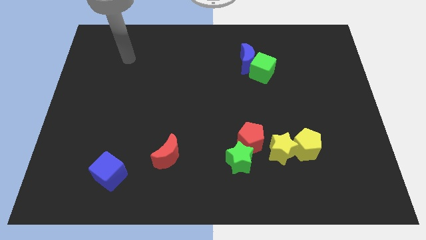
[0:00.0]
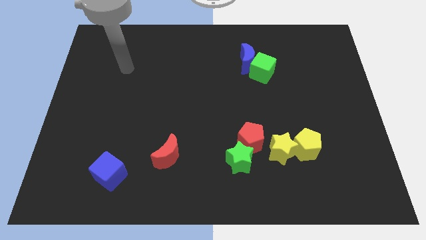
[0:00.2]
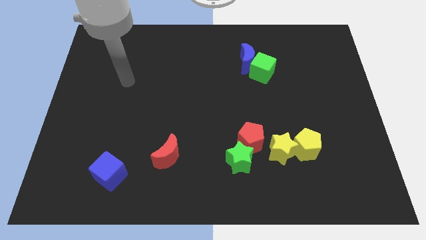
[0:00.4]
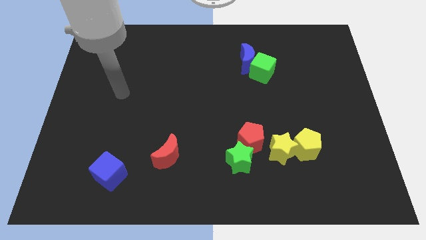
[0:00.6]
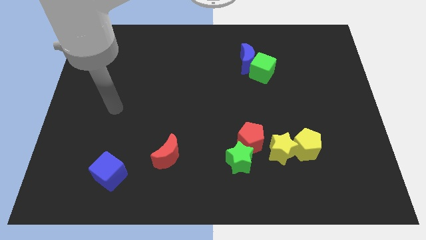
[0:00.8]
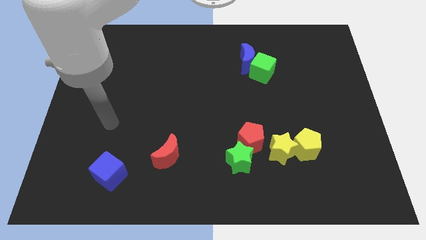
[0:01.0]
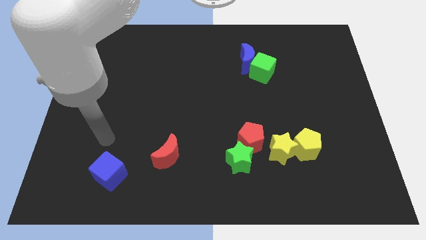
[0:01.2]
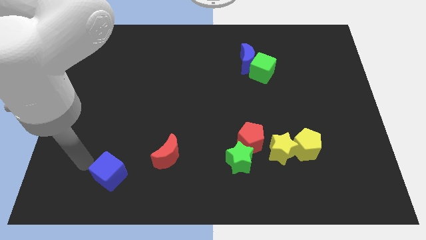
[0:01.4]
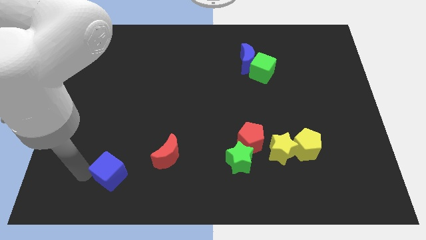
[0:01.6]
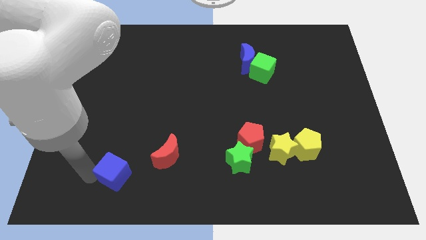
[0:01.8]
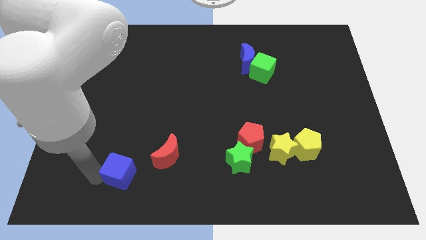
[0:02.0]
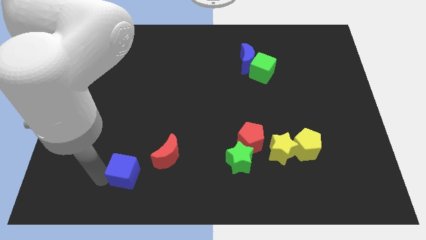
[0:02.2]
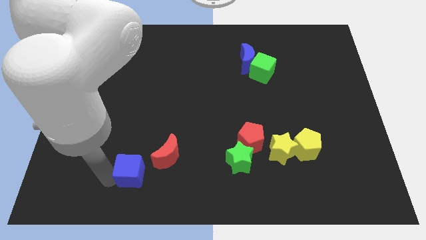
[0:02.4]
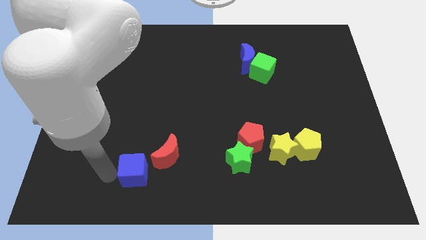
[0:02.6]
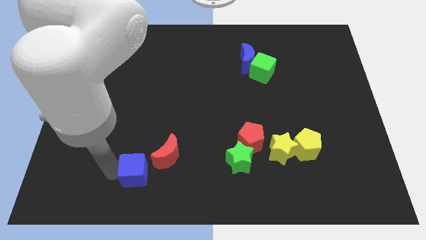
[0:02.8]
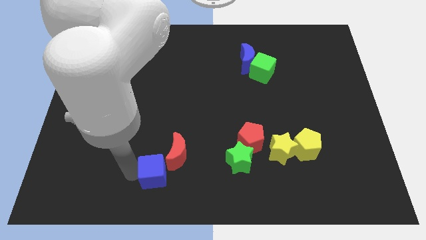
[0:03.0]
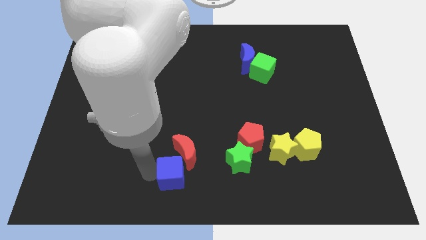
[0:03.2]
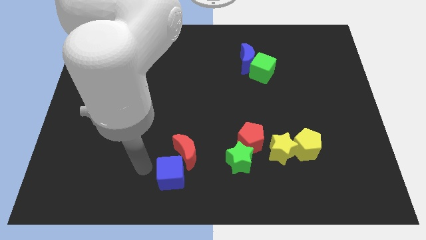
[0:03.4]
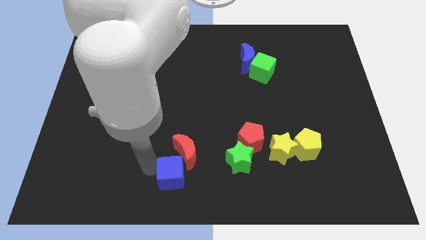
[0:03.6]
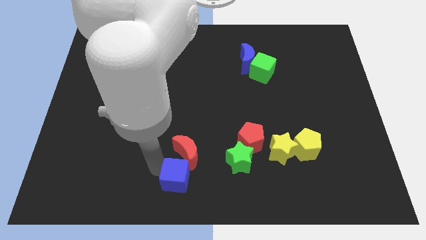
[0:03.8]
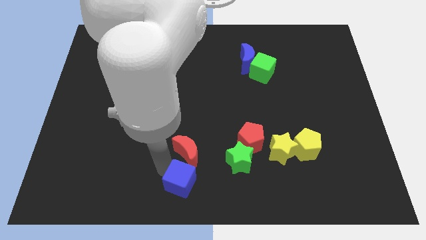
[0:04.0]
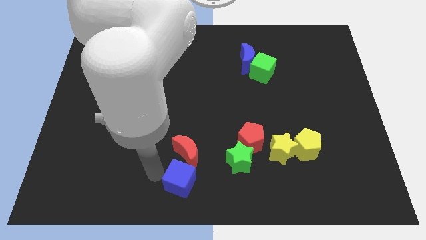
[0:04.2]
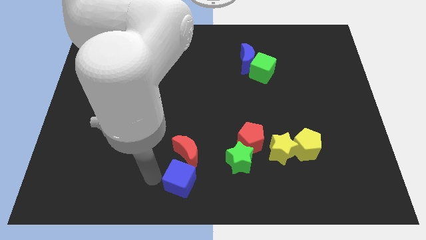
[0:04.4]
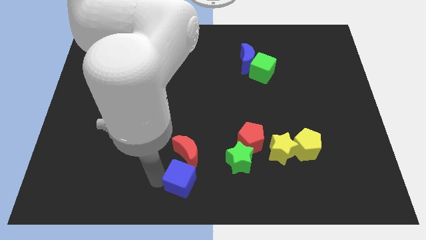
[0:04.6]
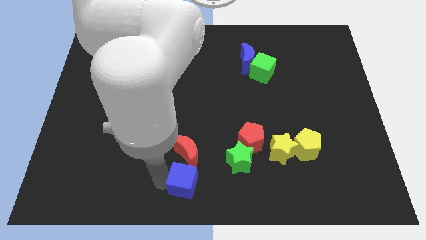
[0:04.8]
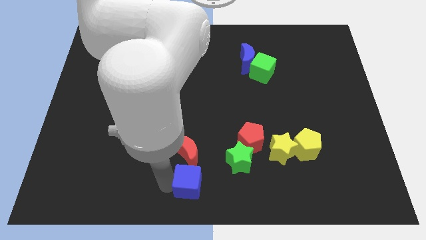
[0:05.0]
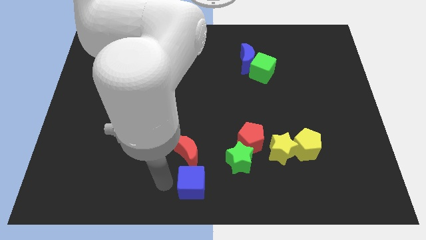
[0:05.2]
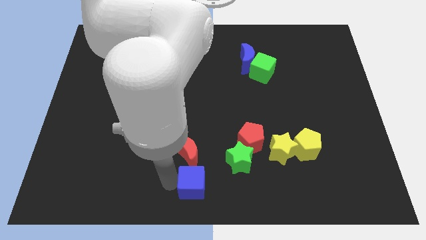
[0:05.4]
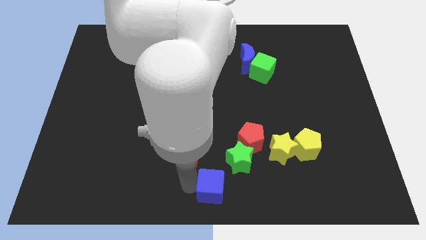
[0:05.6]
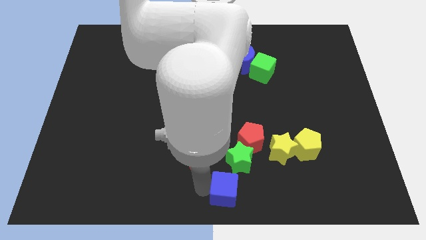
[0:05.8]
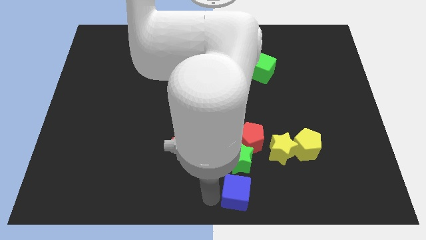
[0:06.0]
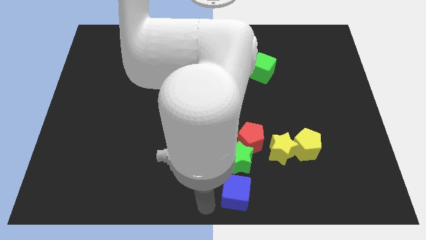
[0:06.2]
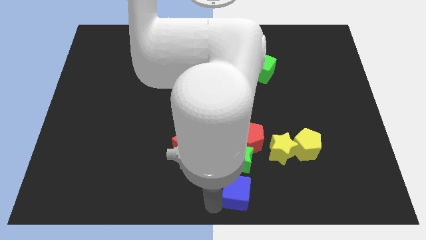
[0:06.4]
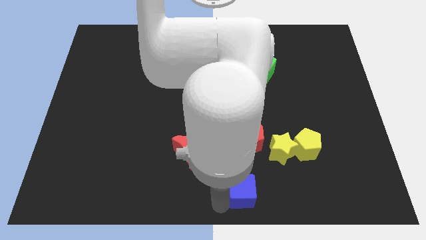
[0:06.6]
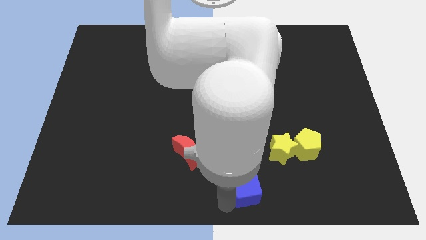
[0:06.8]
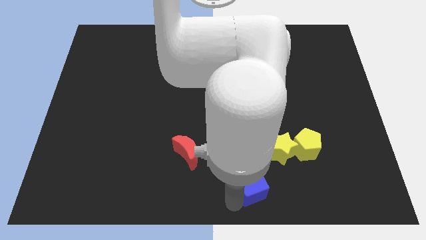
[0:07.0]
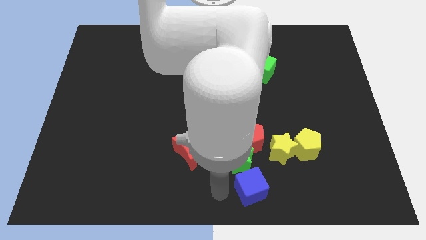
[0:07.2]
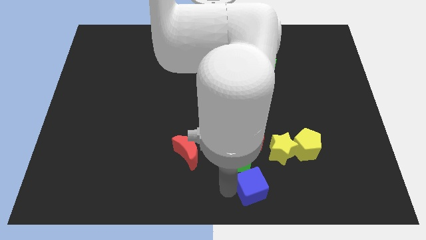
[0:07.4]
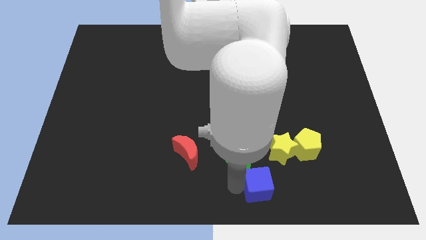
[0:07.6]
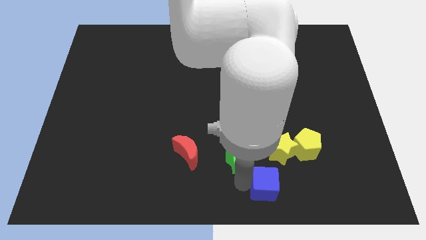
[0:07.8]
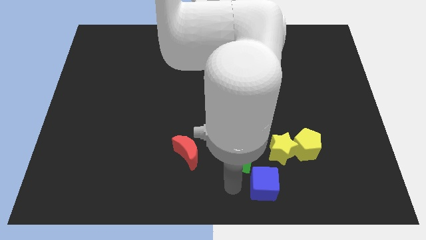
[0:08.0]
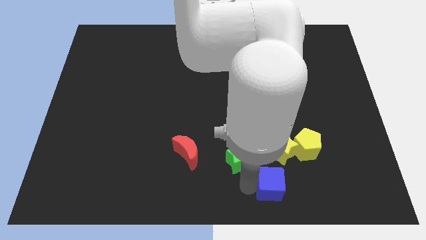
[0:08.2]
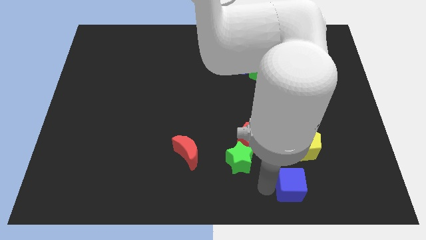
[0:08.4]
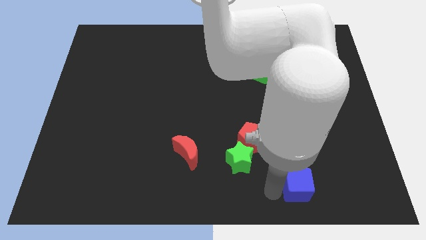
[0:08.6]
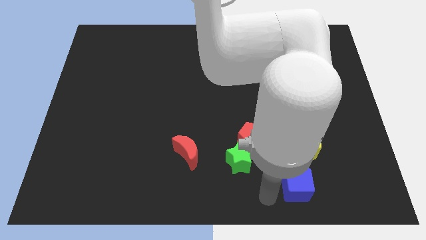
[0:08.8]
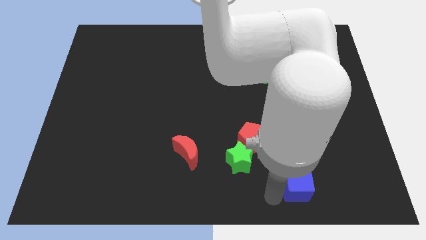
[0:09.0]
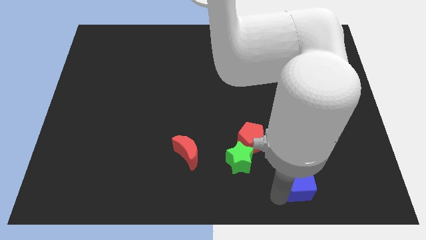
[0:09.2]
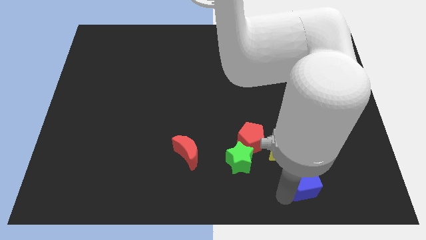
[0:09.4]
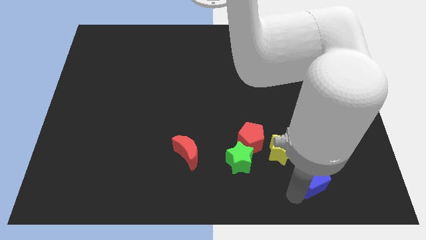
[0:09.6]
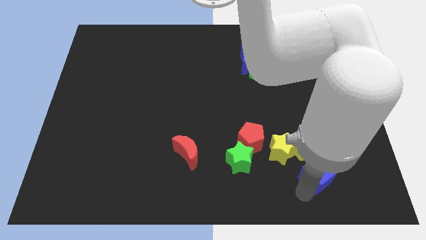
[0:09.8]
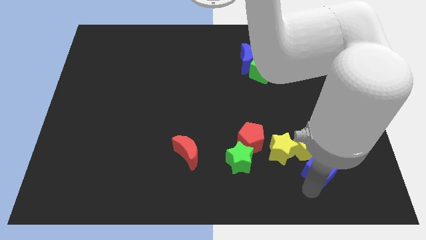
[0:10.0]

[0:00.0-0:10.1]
put the blue cube right of the yellow star

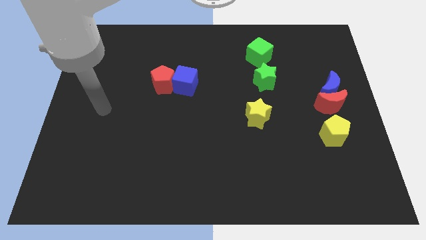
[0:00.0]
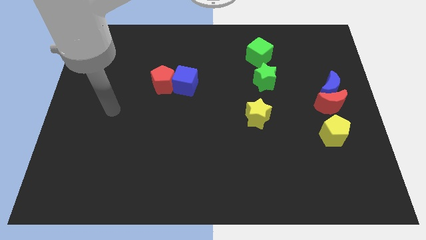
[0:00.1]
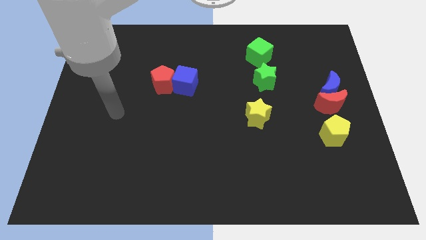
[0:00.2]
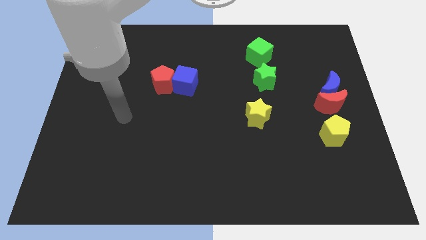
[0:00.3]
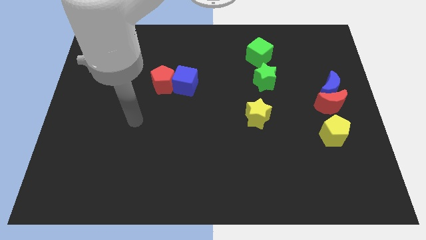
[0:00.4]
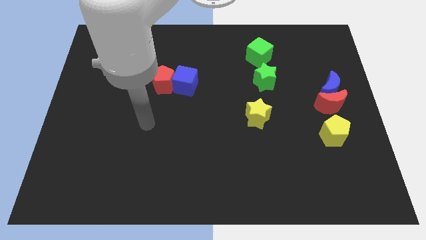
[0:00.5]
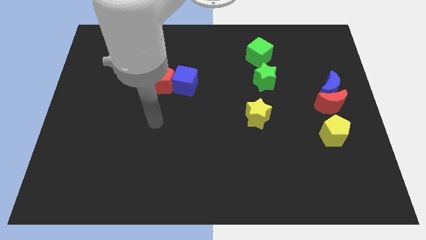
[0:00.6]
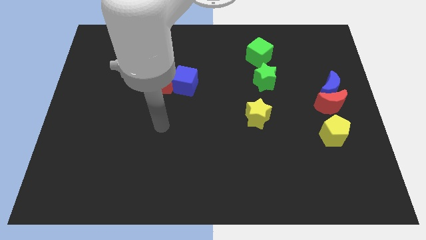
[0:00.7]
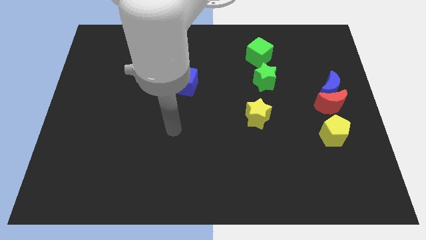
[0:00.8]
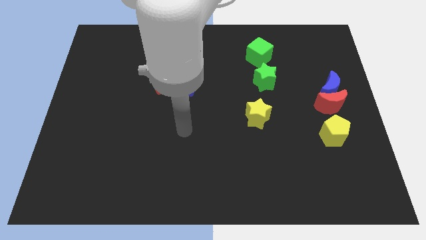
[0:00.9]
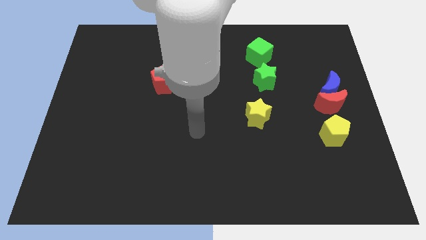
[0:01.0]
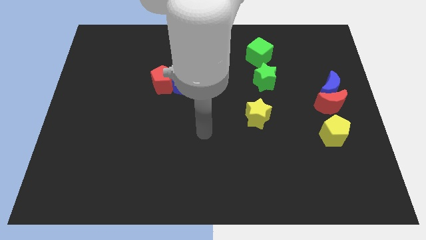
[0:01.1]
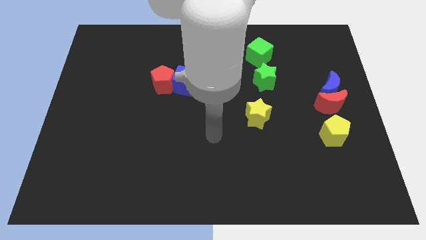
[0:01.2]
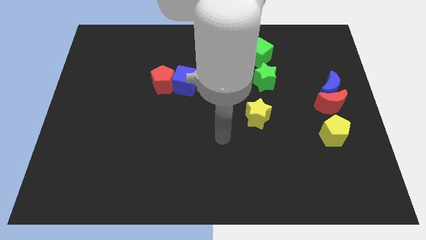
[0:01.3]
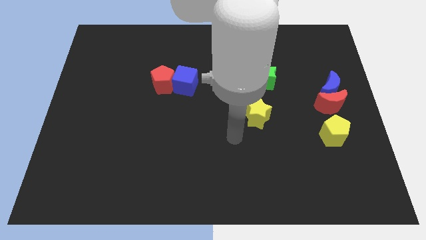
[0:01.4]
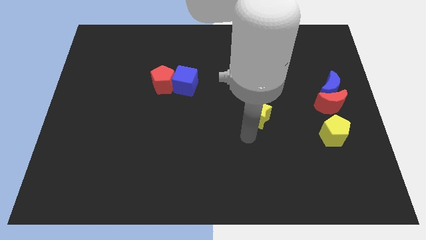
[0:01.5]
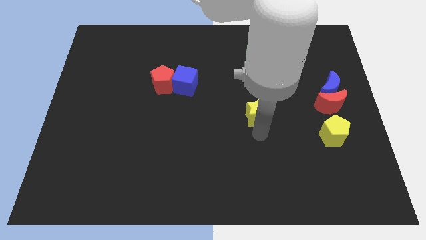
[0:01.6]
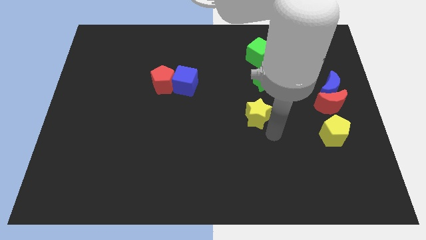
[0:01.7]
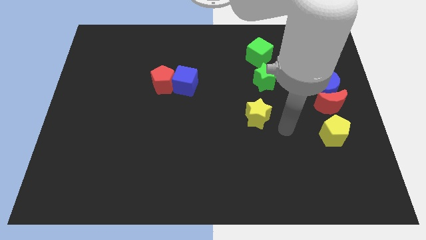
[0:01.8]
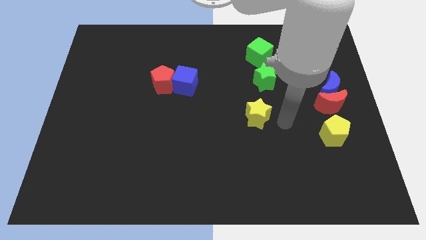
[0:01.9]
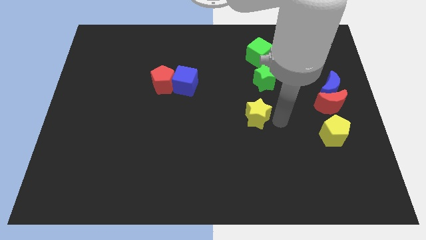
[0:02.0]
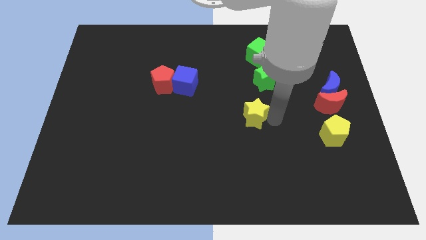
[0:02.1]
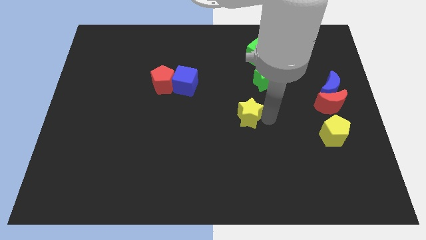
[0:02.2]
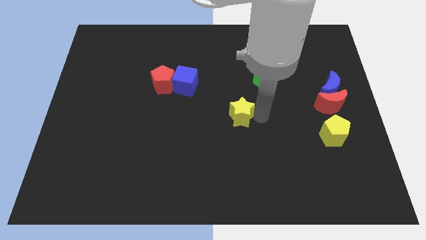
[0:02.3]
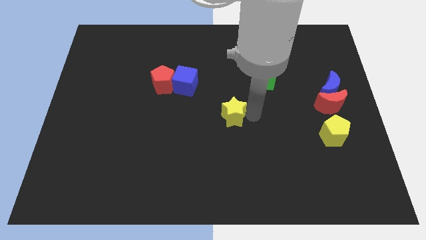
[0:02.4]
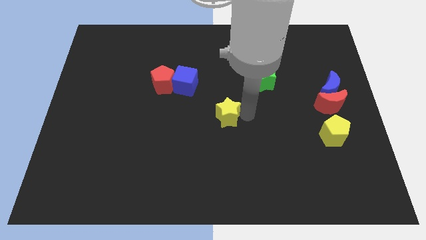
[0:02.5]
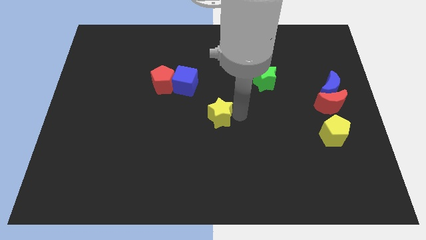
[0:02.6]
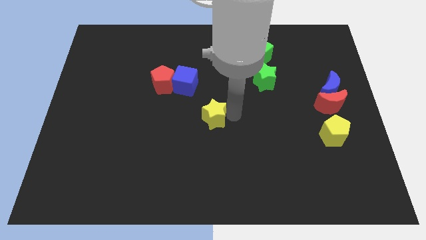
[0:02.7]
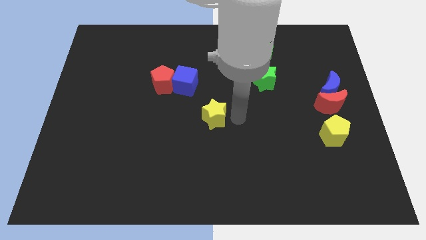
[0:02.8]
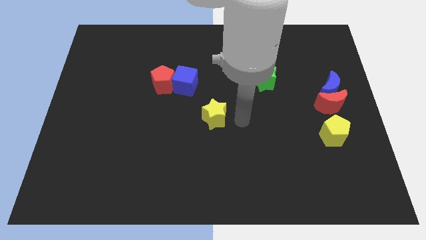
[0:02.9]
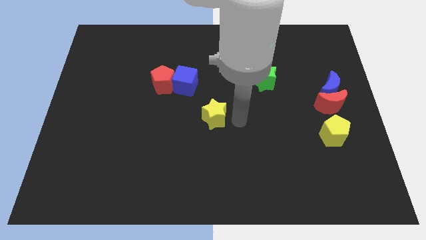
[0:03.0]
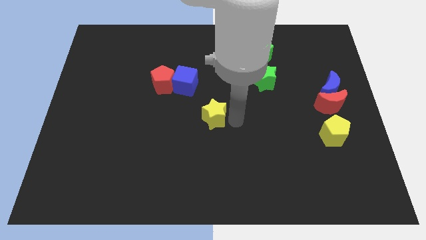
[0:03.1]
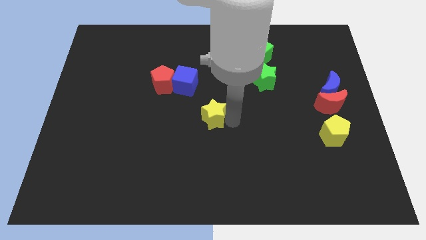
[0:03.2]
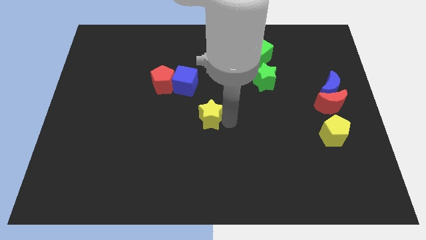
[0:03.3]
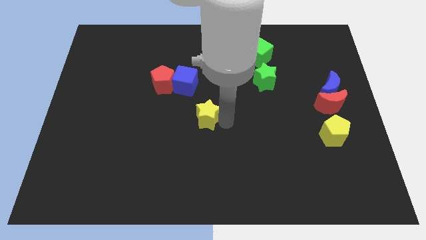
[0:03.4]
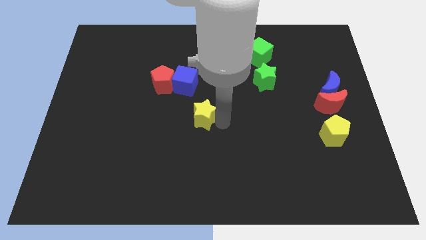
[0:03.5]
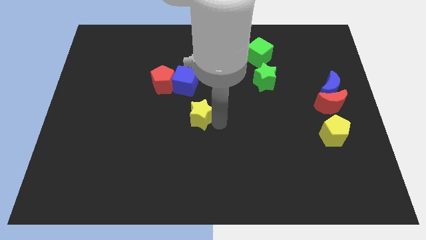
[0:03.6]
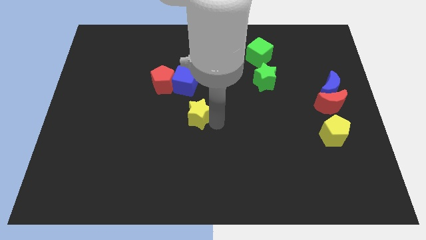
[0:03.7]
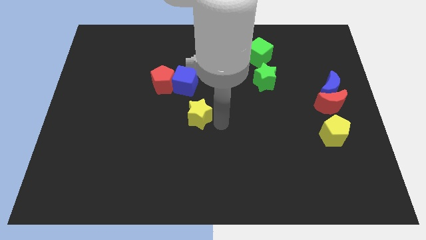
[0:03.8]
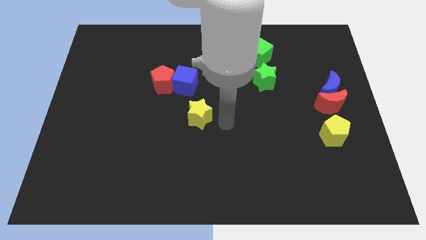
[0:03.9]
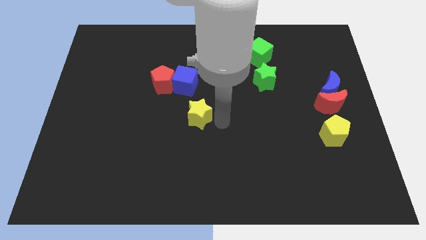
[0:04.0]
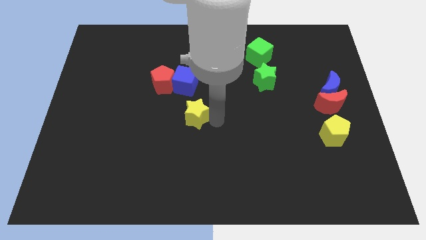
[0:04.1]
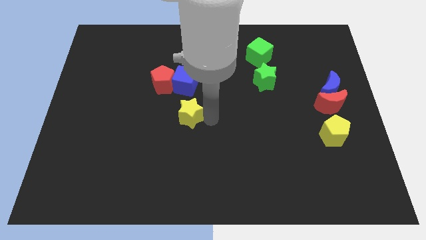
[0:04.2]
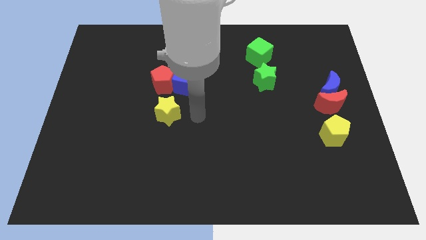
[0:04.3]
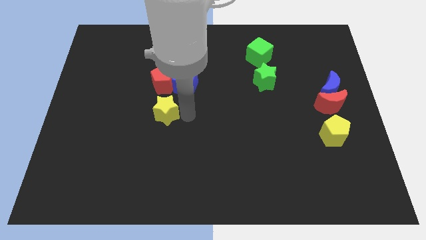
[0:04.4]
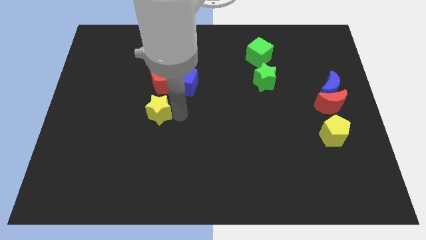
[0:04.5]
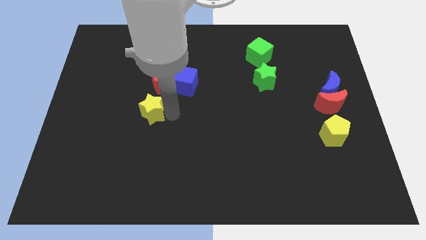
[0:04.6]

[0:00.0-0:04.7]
slide the yellow star diagonally down and to the left of the red pentagon
